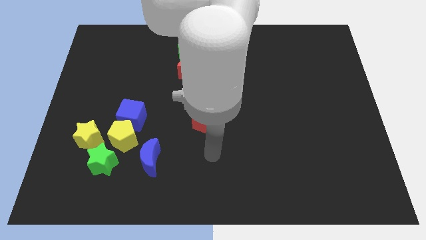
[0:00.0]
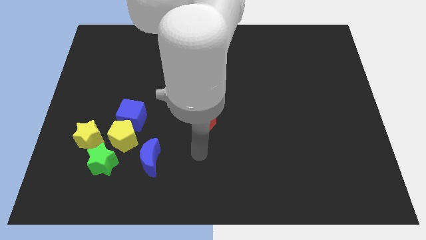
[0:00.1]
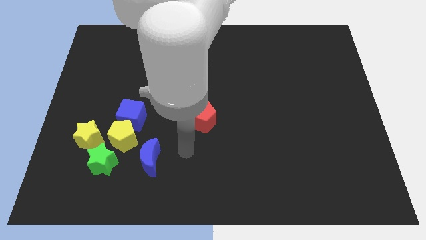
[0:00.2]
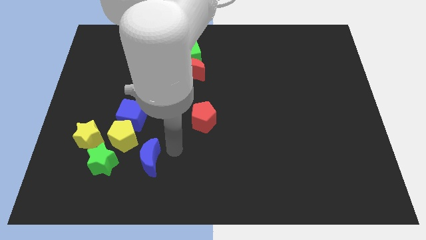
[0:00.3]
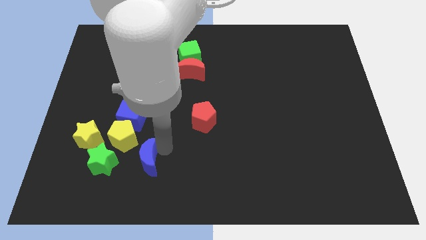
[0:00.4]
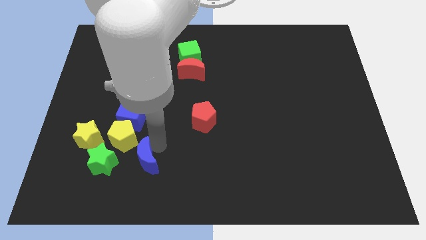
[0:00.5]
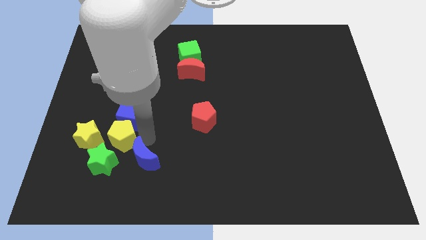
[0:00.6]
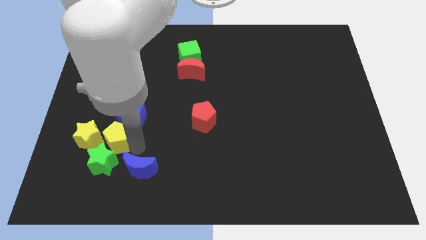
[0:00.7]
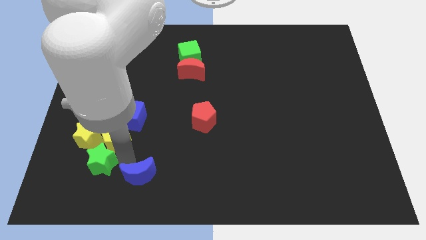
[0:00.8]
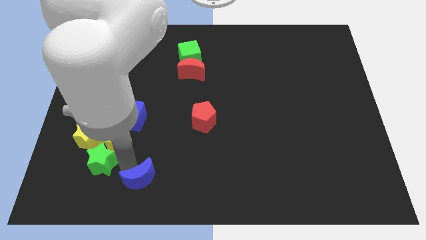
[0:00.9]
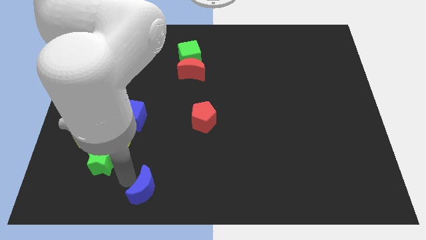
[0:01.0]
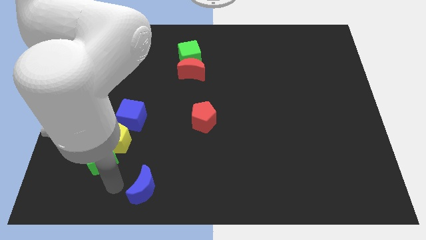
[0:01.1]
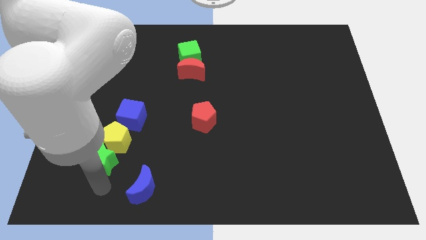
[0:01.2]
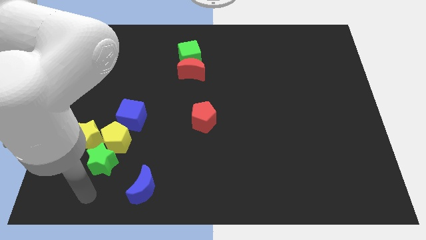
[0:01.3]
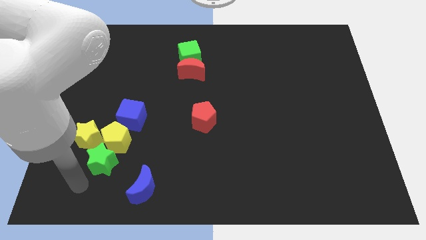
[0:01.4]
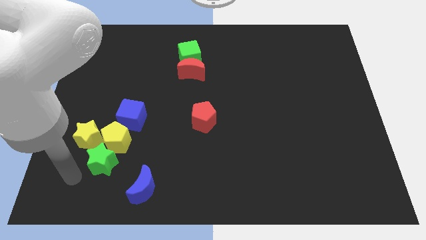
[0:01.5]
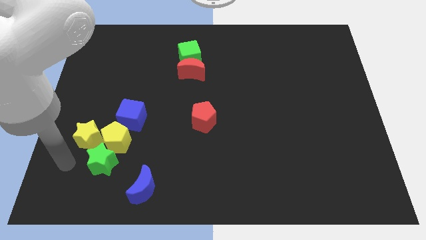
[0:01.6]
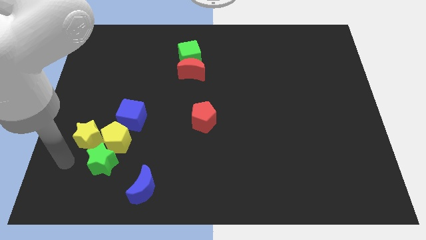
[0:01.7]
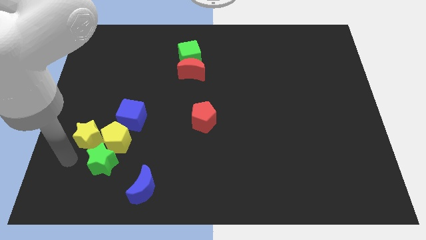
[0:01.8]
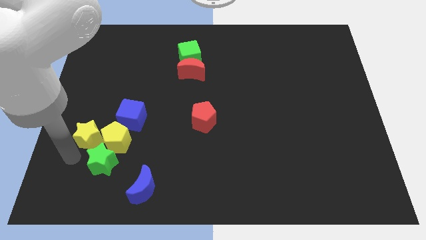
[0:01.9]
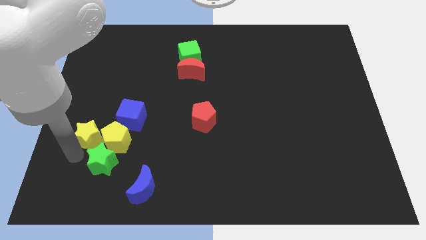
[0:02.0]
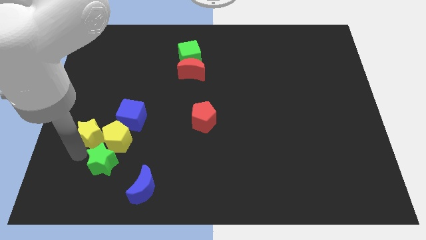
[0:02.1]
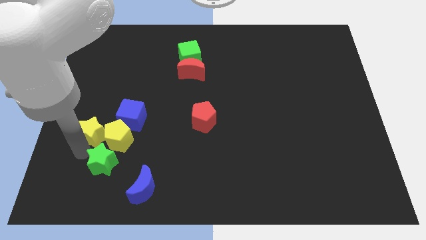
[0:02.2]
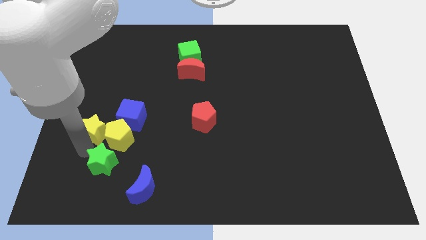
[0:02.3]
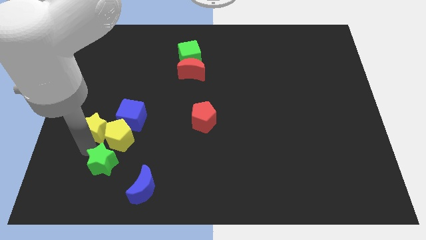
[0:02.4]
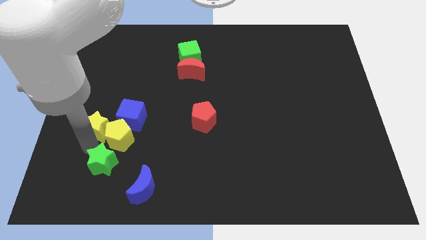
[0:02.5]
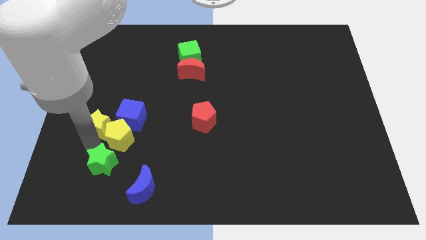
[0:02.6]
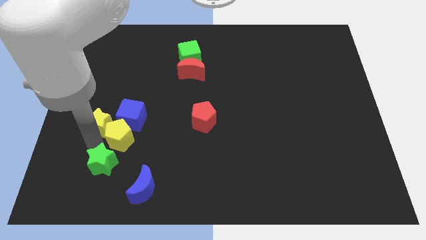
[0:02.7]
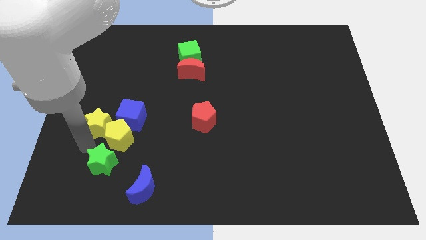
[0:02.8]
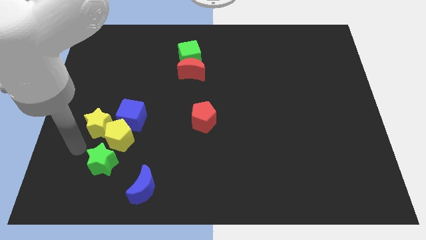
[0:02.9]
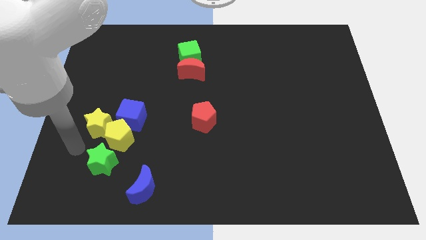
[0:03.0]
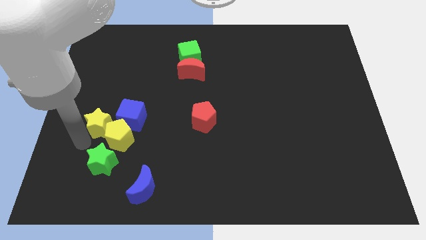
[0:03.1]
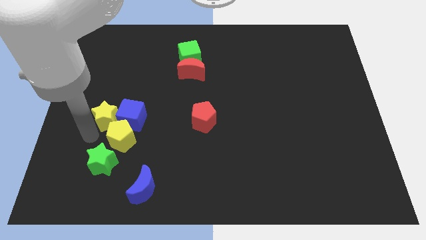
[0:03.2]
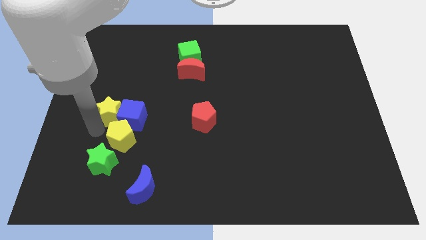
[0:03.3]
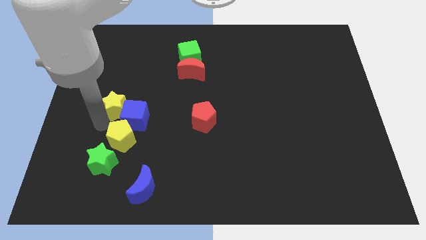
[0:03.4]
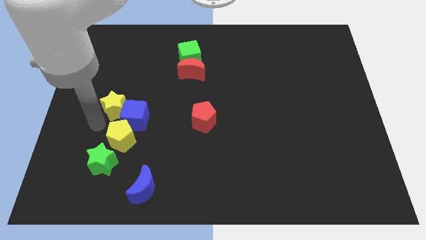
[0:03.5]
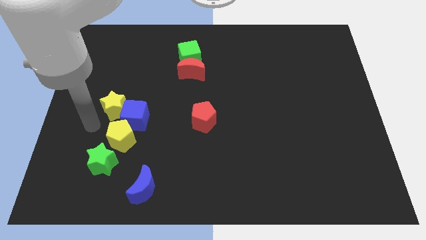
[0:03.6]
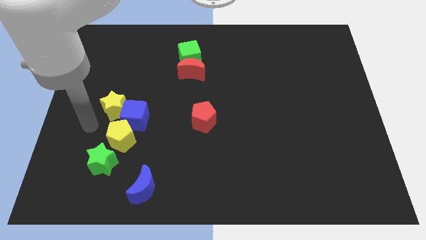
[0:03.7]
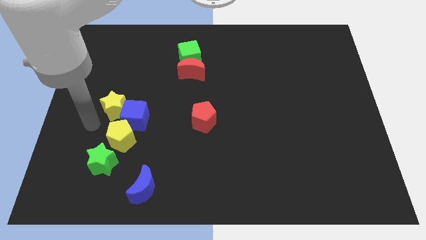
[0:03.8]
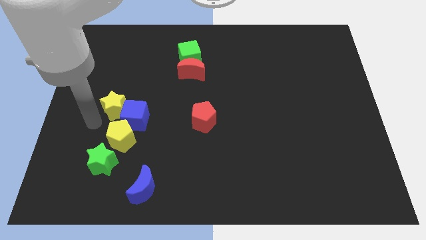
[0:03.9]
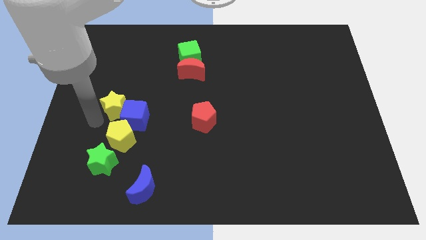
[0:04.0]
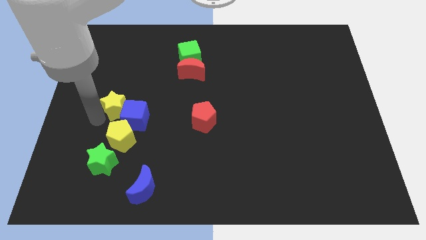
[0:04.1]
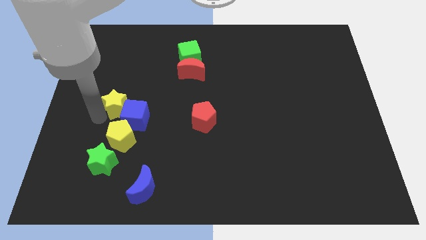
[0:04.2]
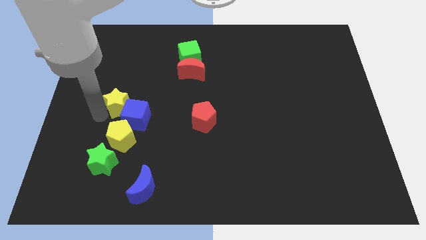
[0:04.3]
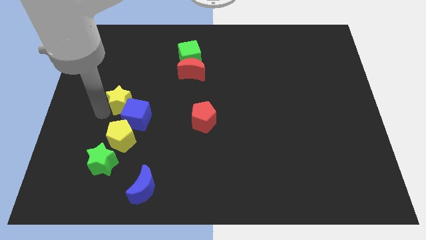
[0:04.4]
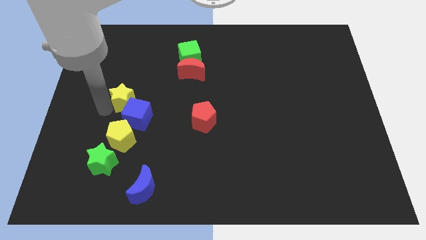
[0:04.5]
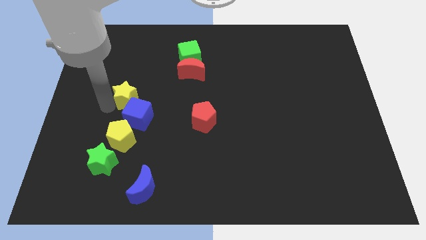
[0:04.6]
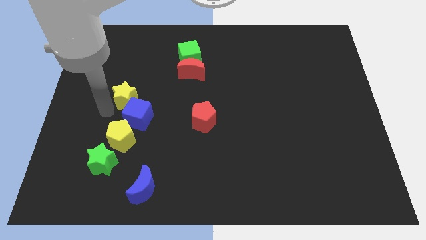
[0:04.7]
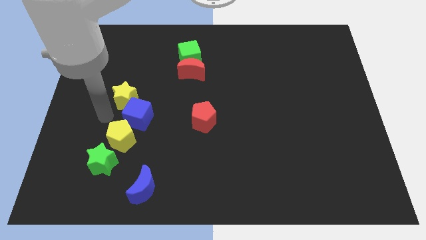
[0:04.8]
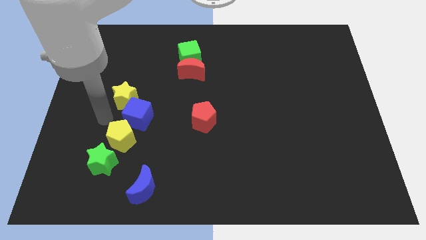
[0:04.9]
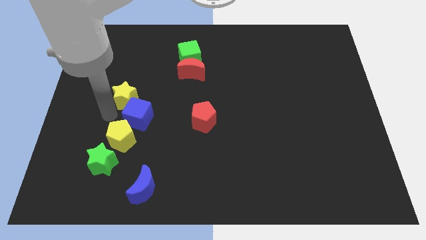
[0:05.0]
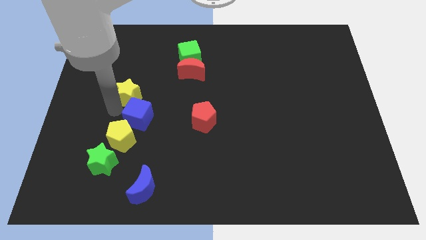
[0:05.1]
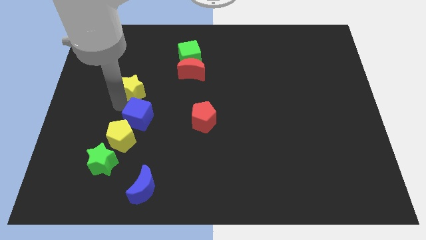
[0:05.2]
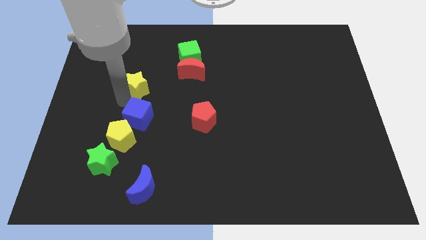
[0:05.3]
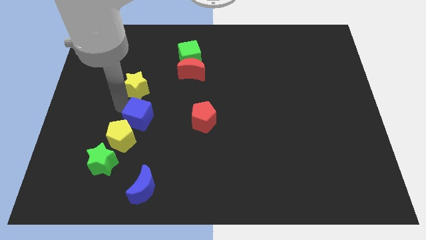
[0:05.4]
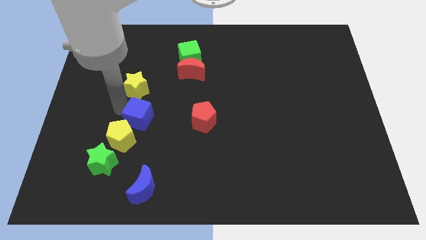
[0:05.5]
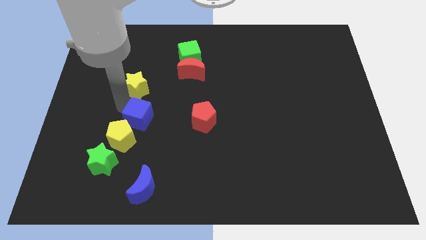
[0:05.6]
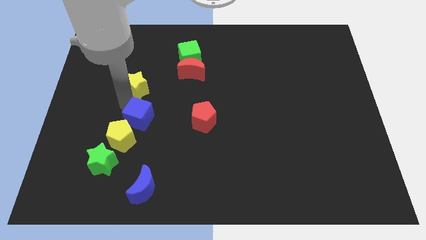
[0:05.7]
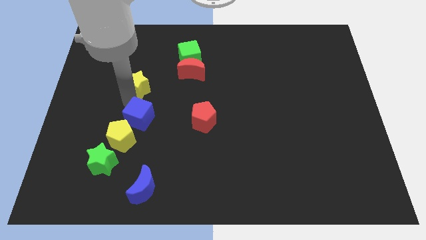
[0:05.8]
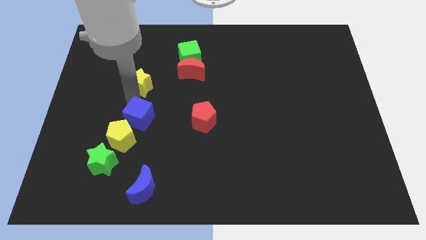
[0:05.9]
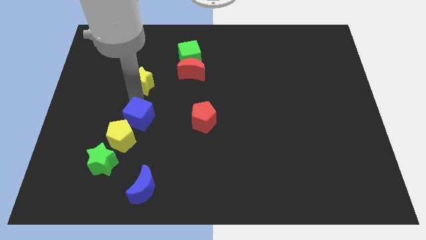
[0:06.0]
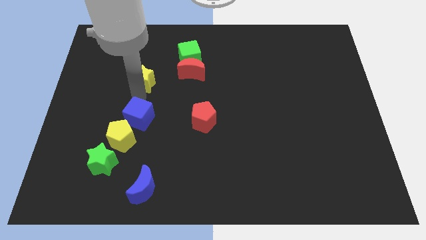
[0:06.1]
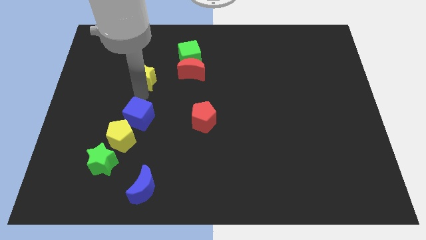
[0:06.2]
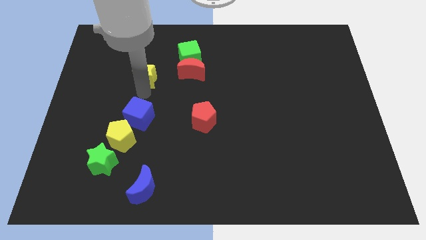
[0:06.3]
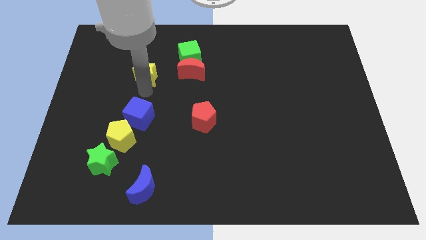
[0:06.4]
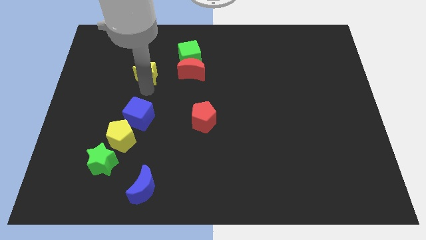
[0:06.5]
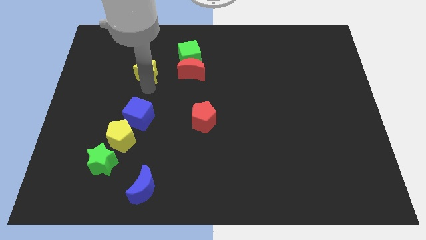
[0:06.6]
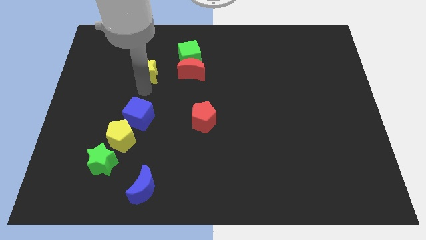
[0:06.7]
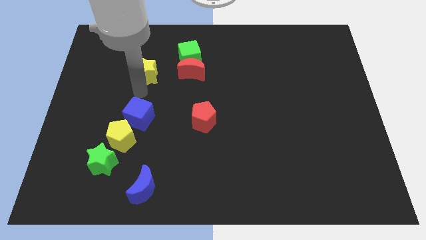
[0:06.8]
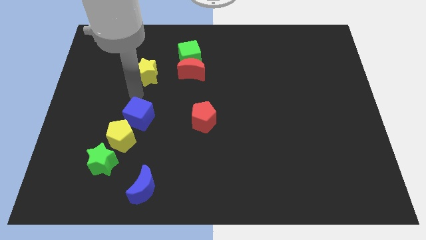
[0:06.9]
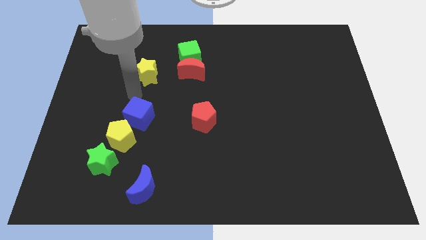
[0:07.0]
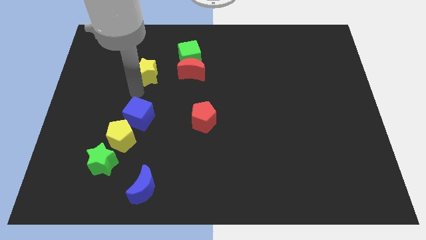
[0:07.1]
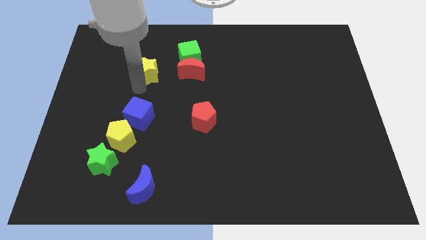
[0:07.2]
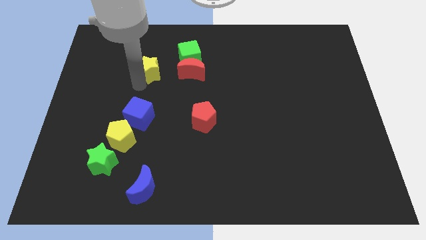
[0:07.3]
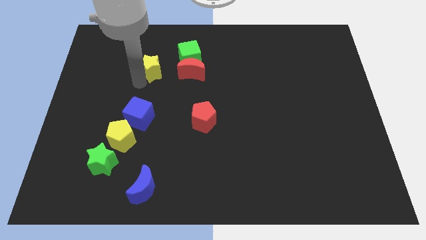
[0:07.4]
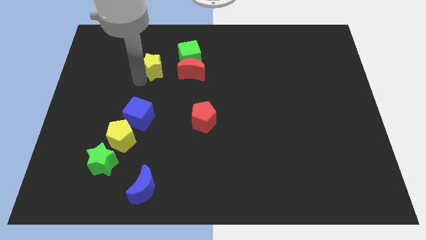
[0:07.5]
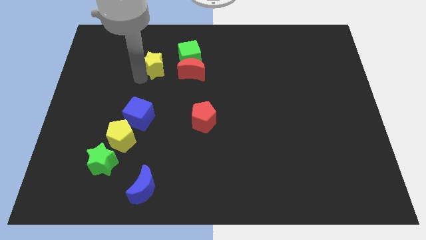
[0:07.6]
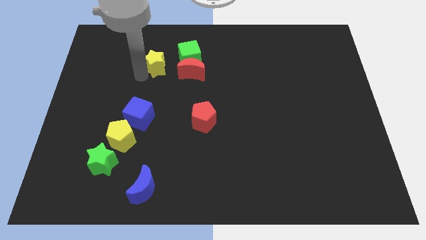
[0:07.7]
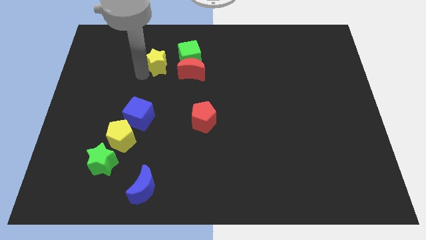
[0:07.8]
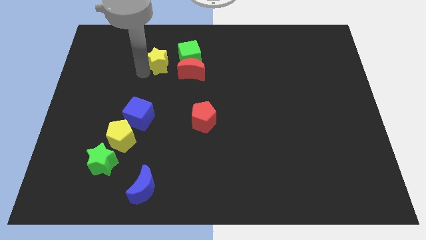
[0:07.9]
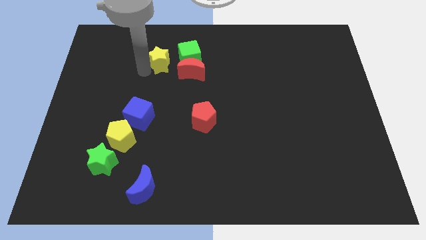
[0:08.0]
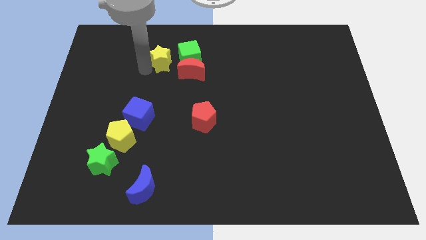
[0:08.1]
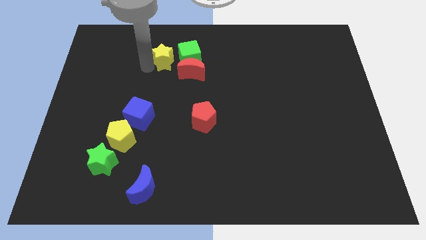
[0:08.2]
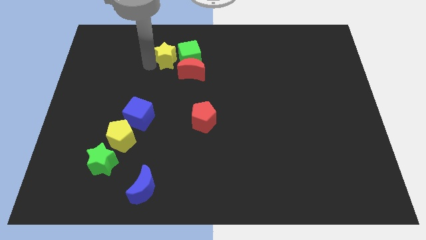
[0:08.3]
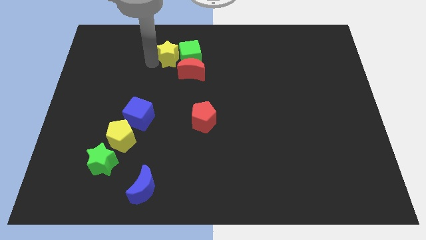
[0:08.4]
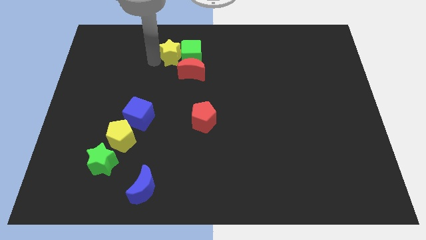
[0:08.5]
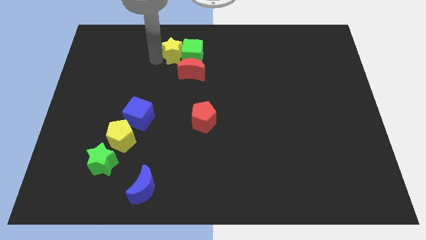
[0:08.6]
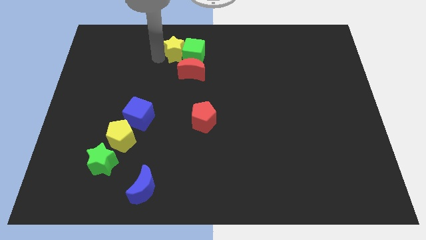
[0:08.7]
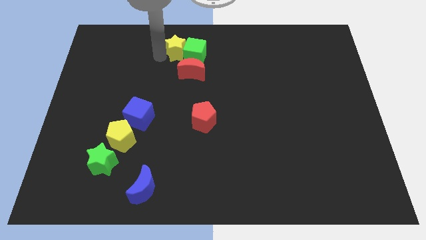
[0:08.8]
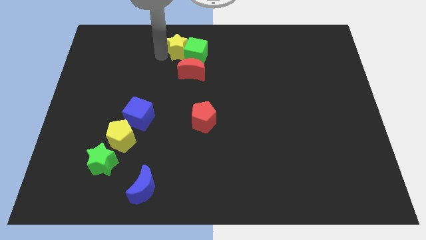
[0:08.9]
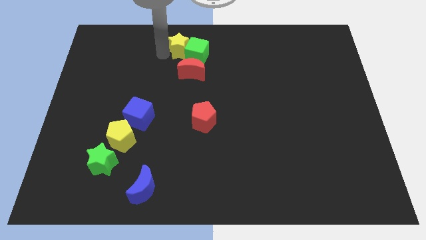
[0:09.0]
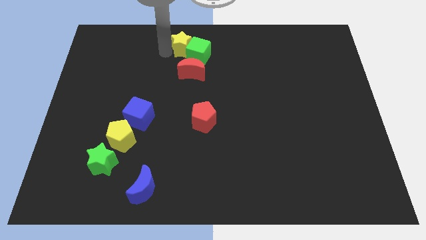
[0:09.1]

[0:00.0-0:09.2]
move the yellow star to the top
